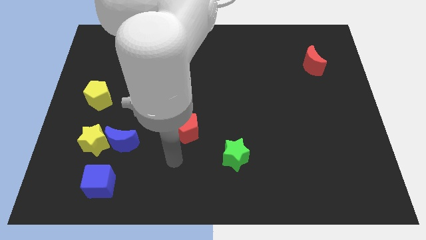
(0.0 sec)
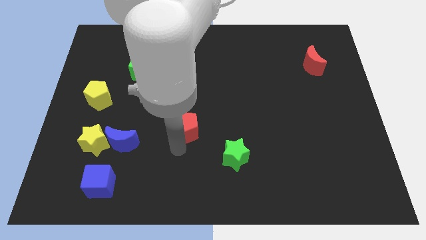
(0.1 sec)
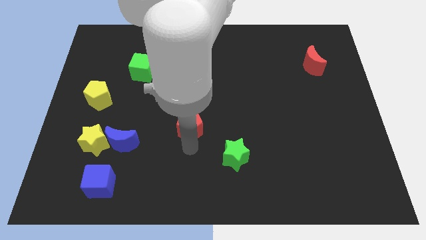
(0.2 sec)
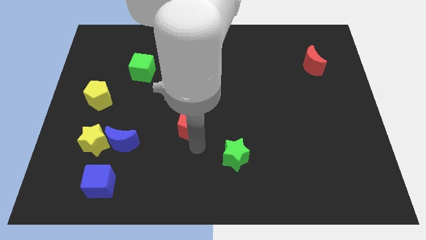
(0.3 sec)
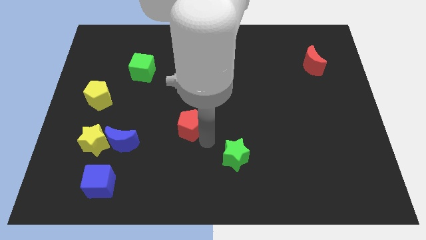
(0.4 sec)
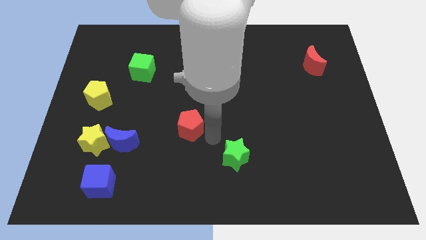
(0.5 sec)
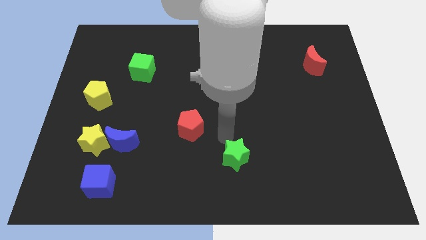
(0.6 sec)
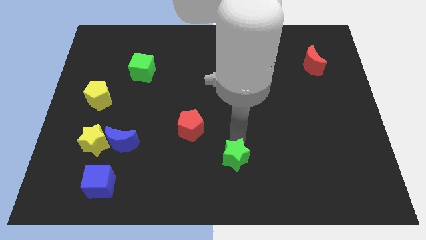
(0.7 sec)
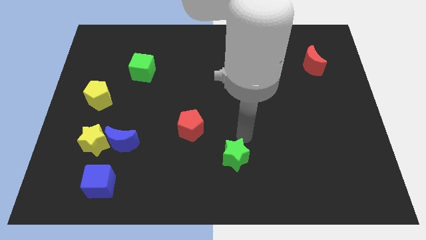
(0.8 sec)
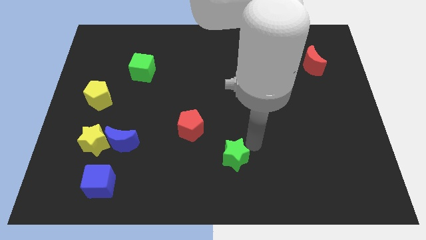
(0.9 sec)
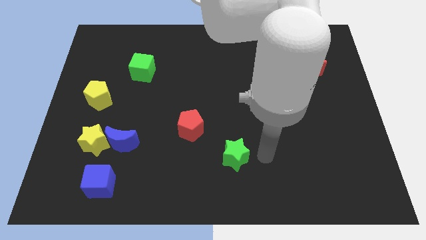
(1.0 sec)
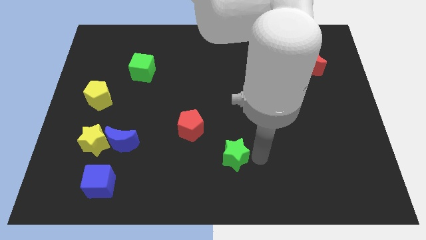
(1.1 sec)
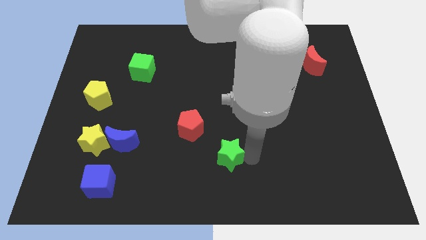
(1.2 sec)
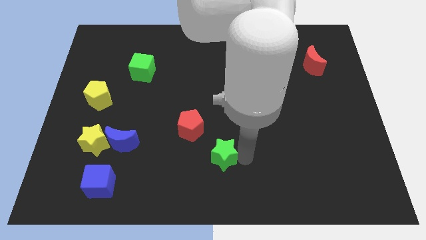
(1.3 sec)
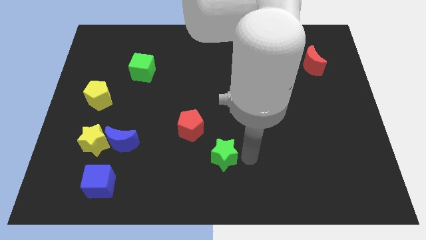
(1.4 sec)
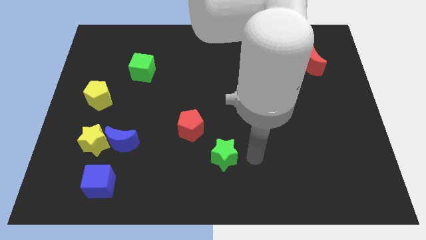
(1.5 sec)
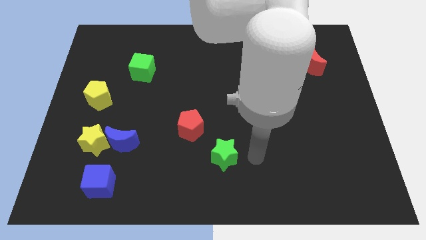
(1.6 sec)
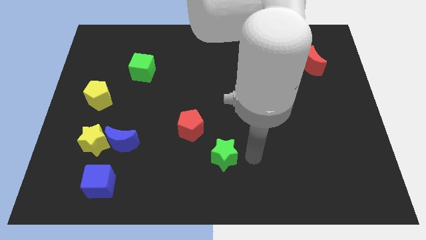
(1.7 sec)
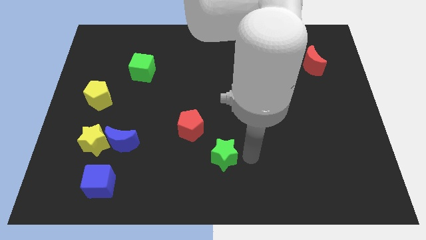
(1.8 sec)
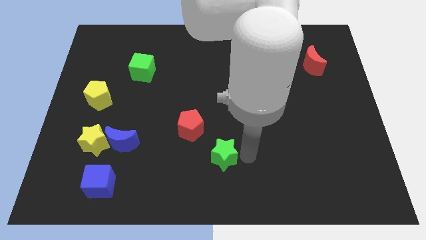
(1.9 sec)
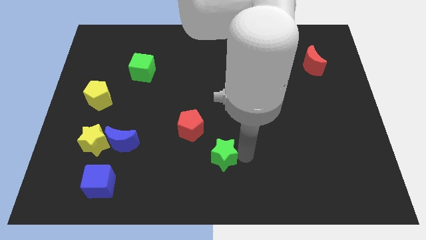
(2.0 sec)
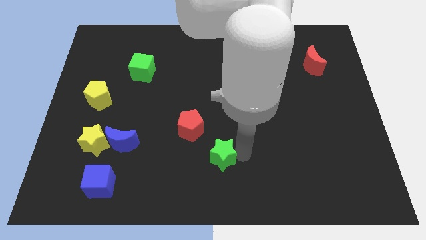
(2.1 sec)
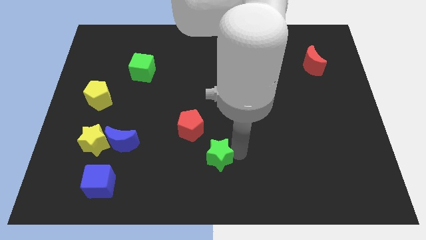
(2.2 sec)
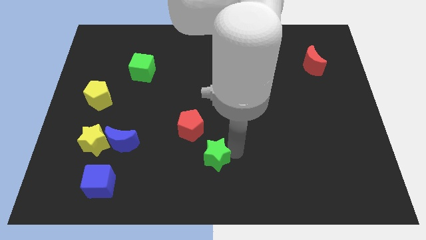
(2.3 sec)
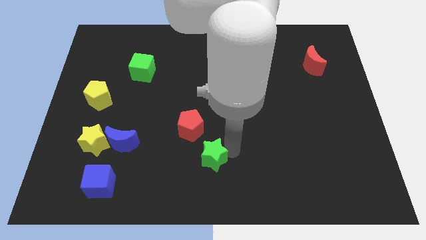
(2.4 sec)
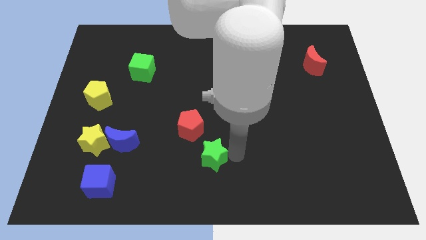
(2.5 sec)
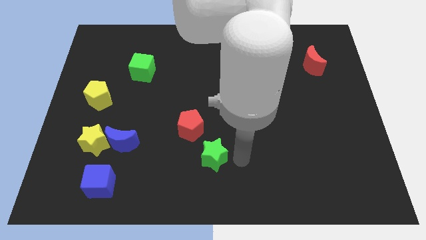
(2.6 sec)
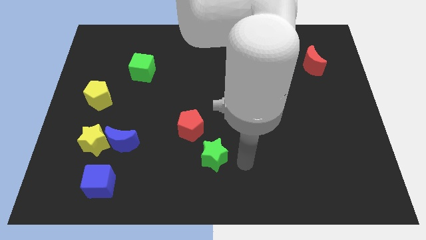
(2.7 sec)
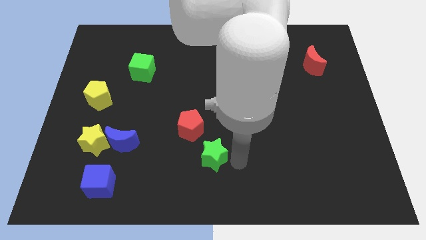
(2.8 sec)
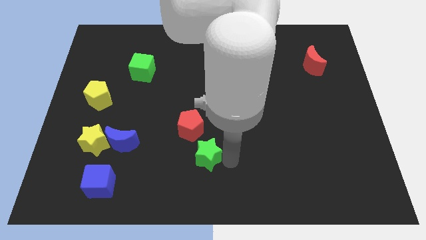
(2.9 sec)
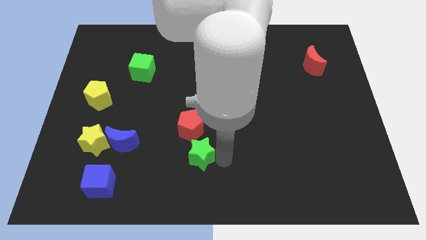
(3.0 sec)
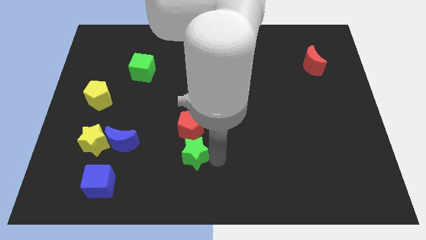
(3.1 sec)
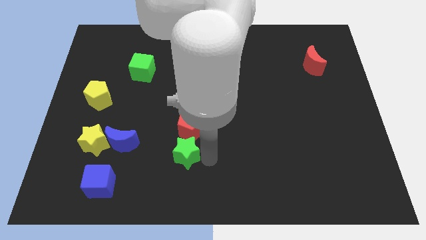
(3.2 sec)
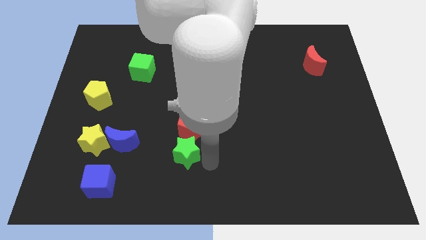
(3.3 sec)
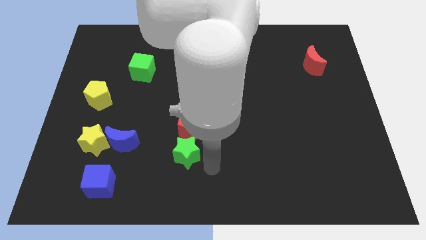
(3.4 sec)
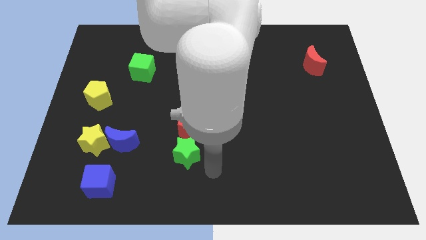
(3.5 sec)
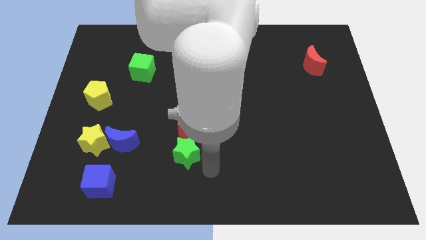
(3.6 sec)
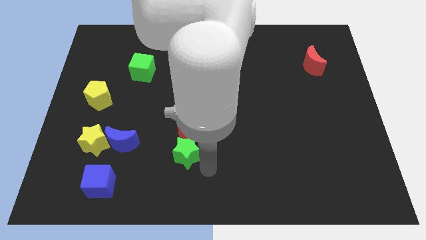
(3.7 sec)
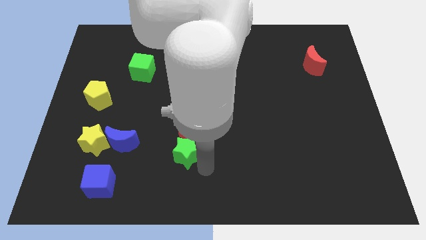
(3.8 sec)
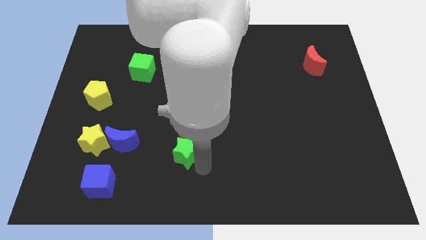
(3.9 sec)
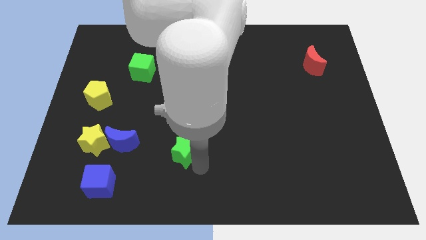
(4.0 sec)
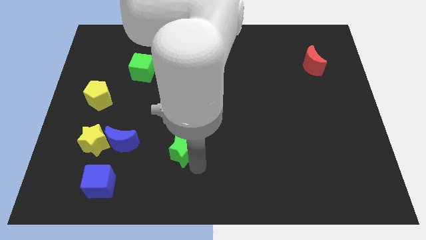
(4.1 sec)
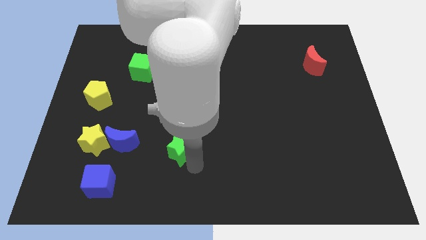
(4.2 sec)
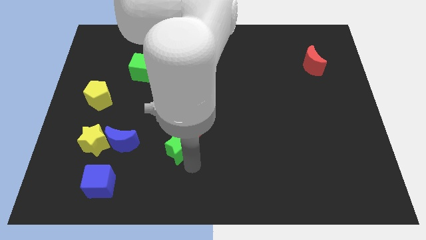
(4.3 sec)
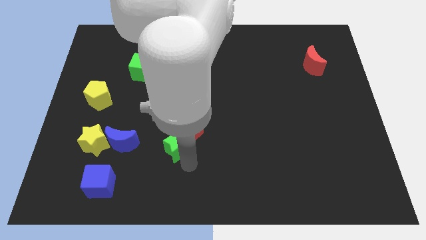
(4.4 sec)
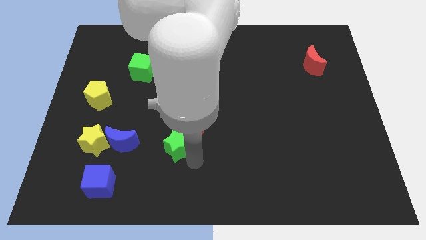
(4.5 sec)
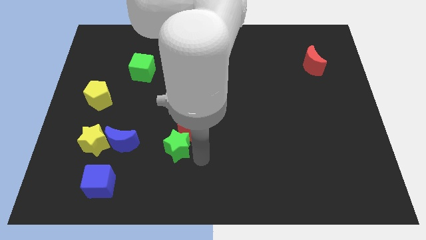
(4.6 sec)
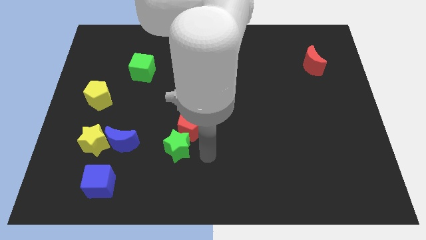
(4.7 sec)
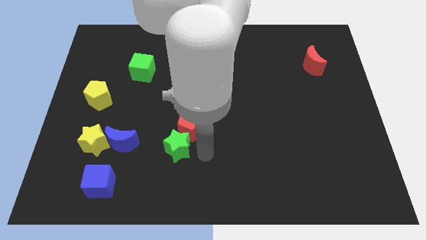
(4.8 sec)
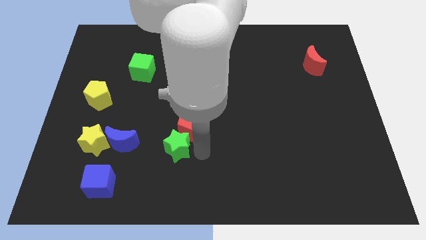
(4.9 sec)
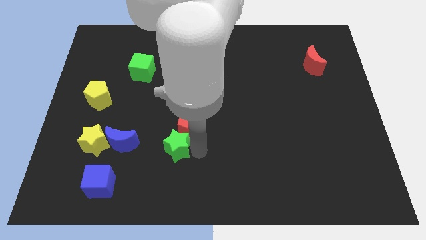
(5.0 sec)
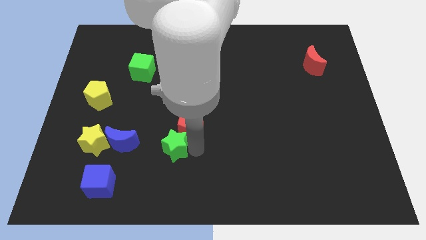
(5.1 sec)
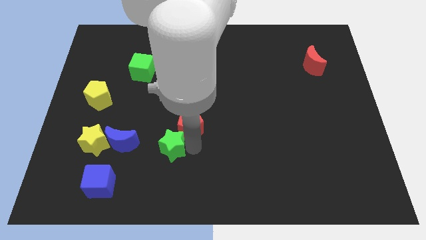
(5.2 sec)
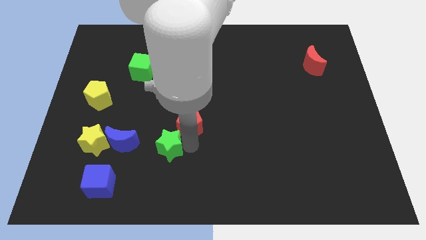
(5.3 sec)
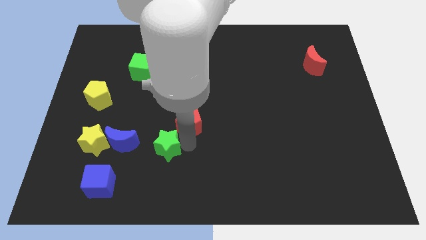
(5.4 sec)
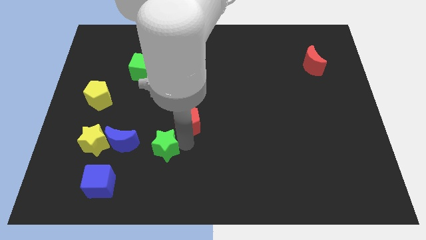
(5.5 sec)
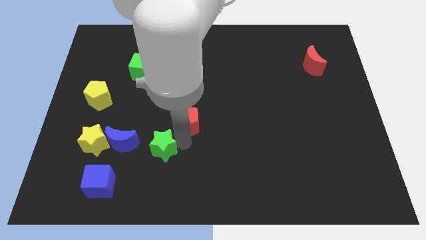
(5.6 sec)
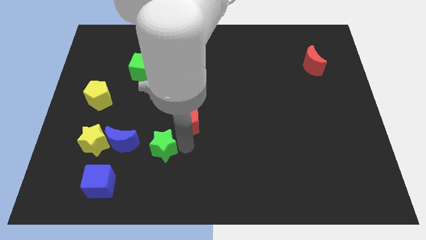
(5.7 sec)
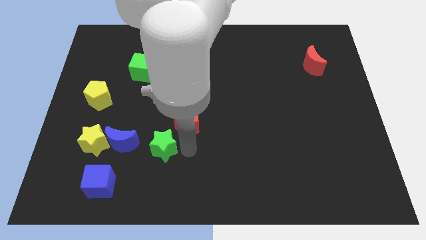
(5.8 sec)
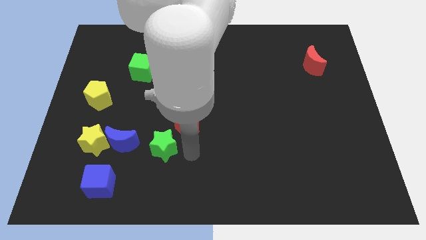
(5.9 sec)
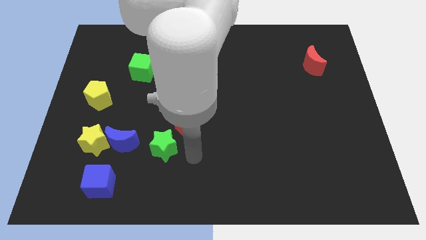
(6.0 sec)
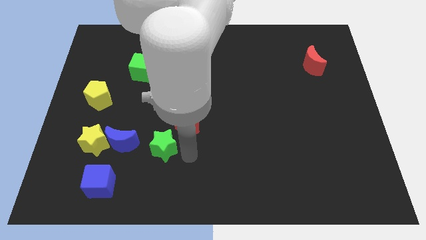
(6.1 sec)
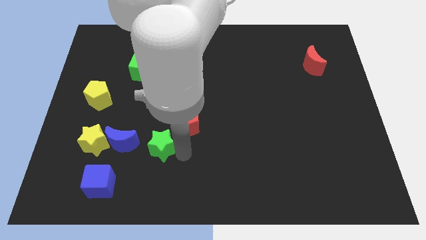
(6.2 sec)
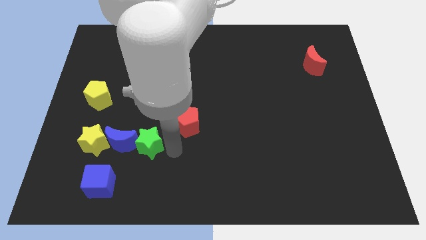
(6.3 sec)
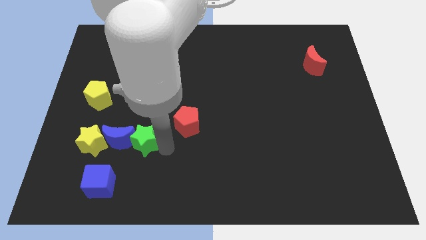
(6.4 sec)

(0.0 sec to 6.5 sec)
push the green star next to the blue moon

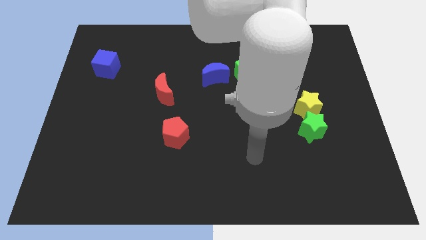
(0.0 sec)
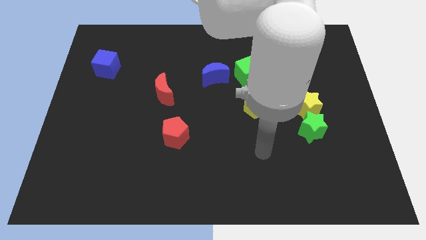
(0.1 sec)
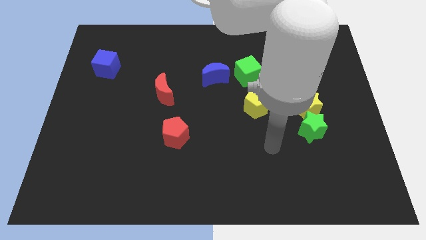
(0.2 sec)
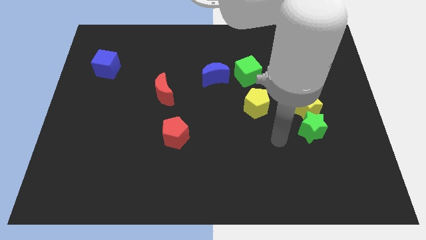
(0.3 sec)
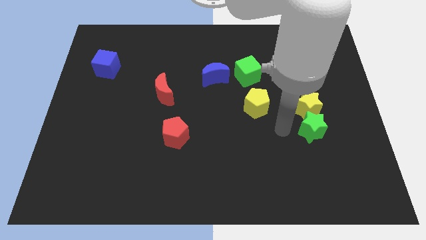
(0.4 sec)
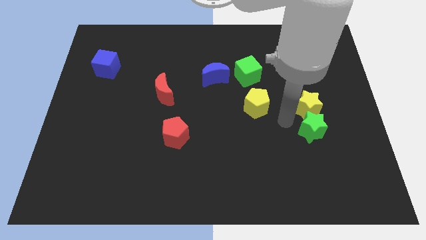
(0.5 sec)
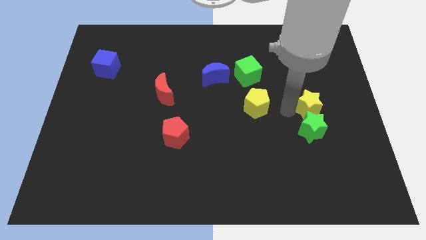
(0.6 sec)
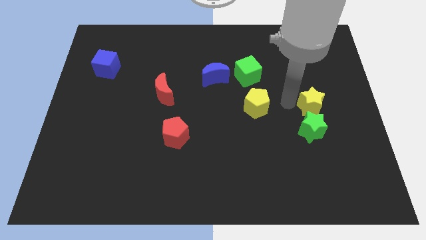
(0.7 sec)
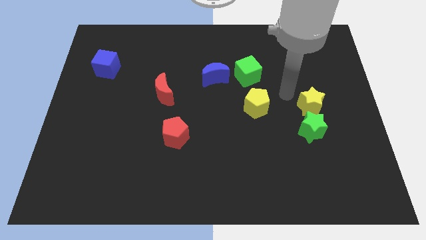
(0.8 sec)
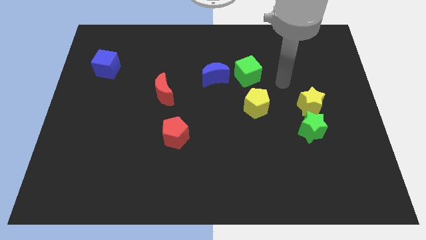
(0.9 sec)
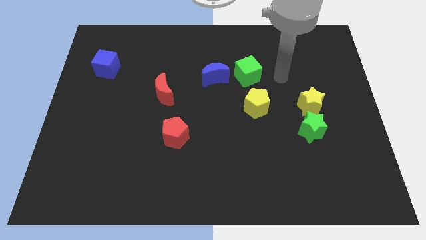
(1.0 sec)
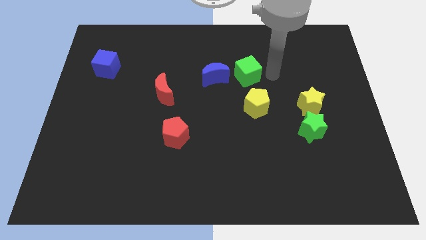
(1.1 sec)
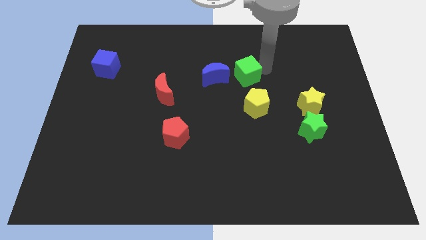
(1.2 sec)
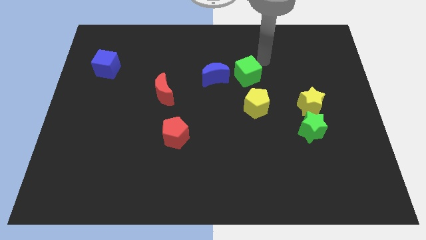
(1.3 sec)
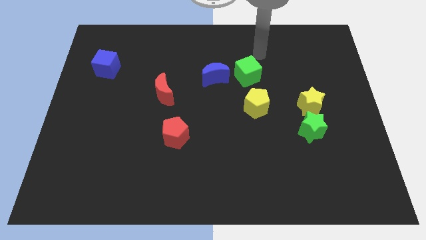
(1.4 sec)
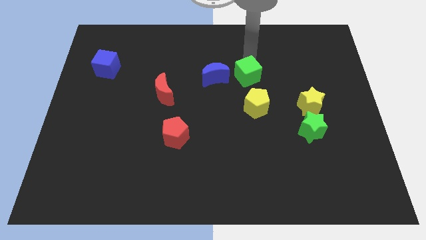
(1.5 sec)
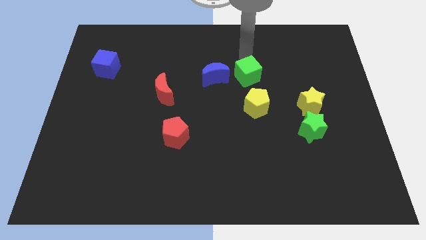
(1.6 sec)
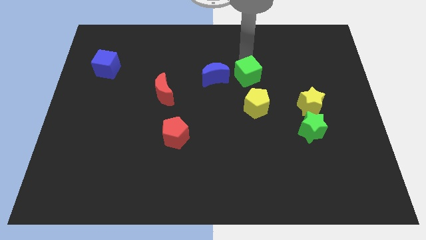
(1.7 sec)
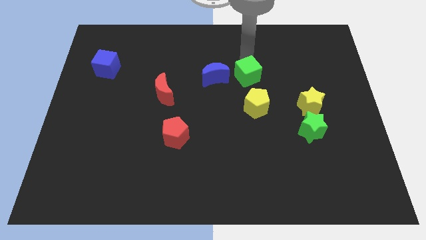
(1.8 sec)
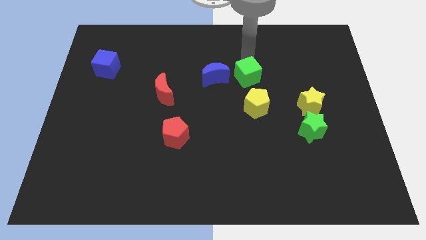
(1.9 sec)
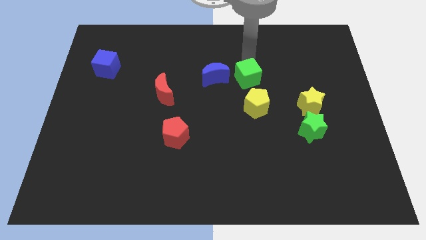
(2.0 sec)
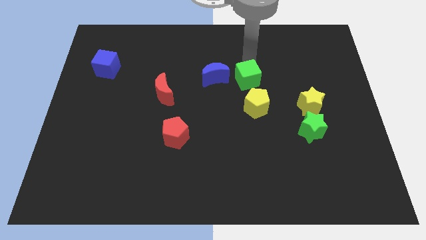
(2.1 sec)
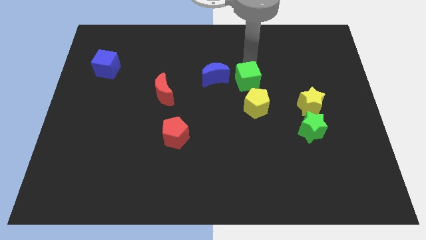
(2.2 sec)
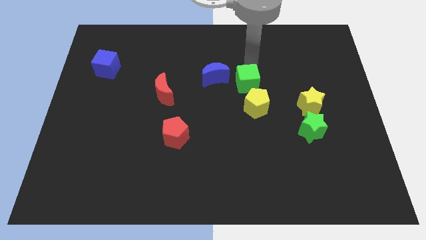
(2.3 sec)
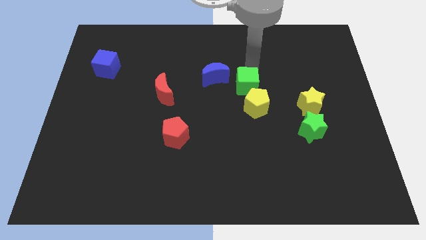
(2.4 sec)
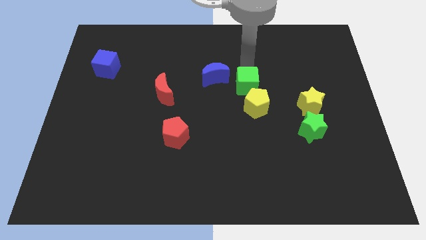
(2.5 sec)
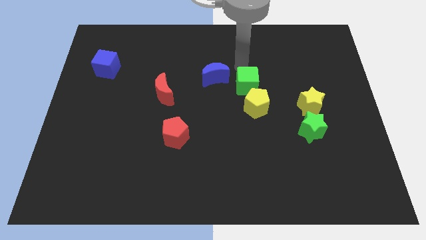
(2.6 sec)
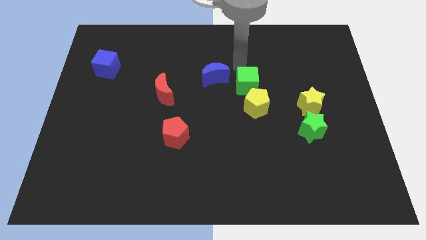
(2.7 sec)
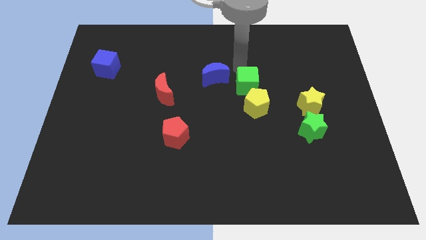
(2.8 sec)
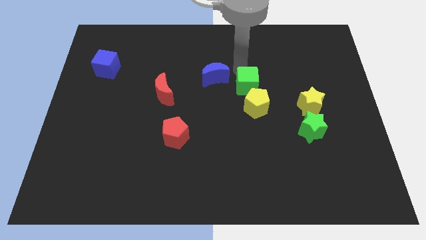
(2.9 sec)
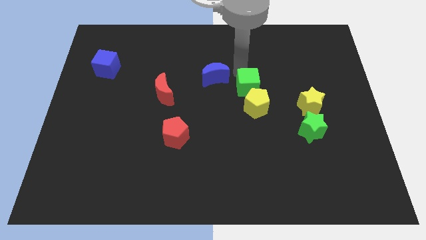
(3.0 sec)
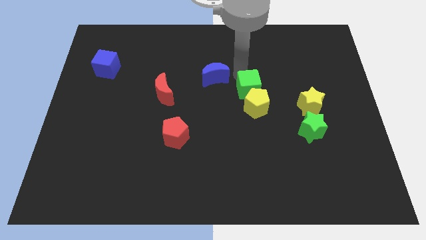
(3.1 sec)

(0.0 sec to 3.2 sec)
slide the green cube next to the yellow pentagon
